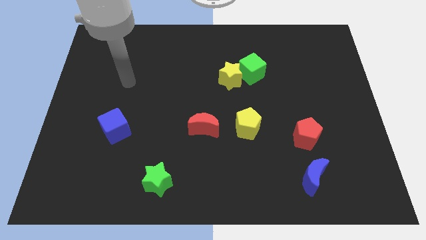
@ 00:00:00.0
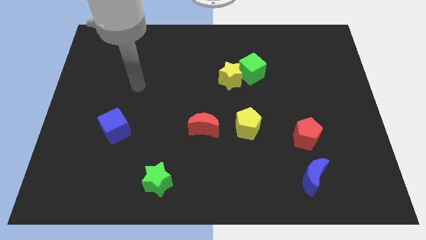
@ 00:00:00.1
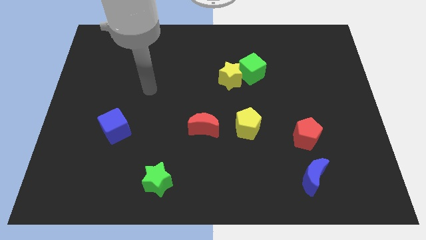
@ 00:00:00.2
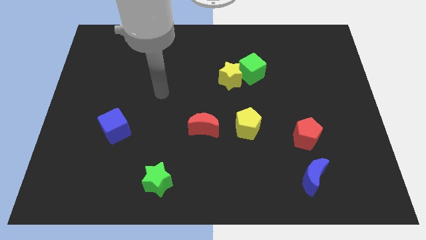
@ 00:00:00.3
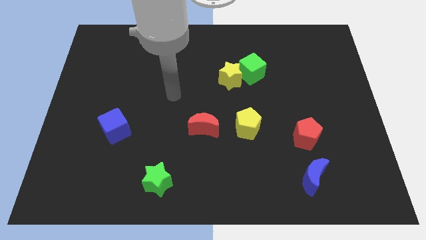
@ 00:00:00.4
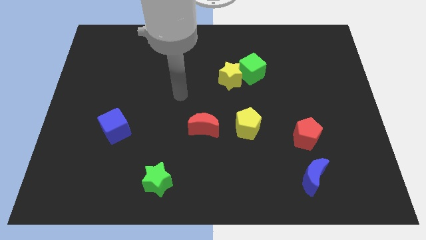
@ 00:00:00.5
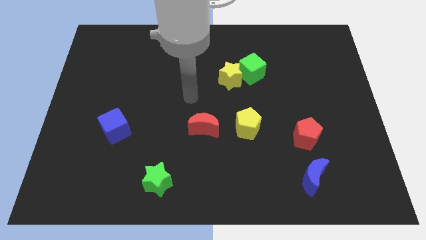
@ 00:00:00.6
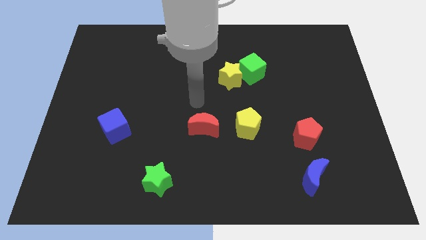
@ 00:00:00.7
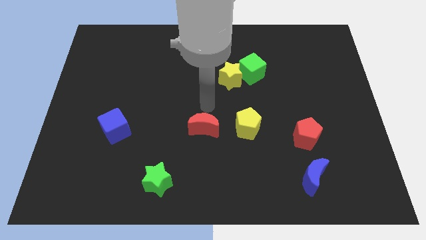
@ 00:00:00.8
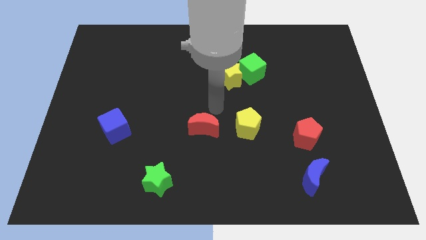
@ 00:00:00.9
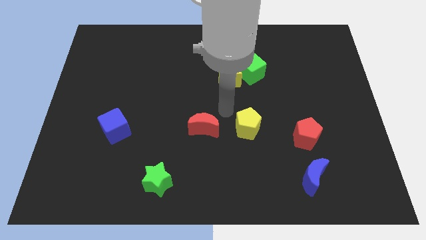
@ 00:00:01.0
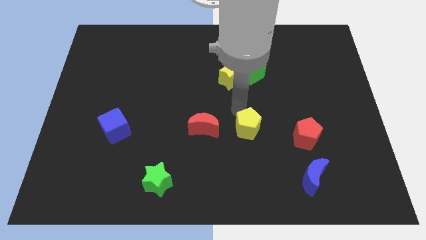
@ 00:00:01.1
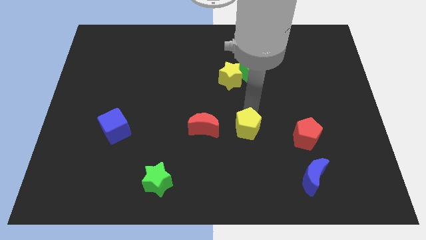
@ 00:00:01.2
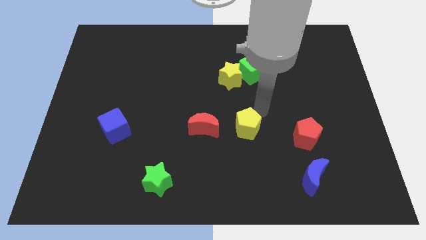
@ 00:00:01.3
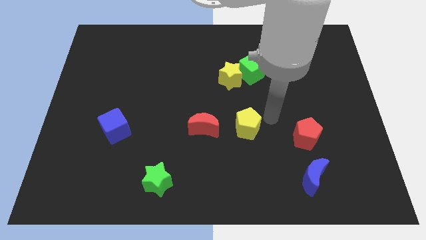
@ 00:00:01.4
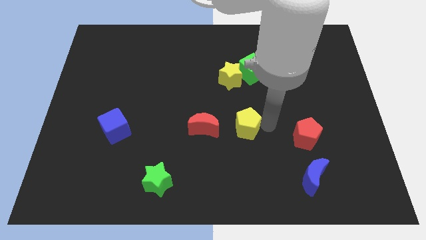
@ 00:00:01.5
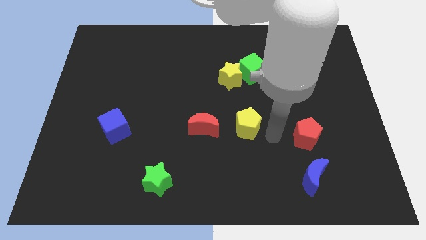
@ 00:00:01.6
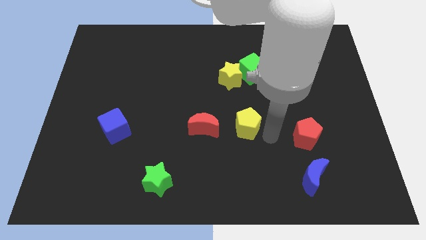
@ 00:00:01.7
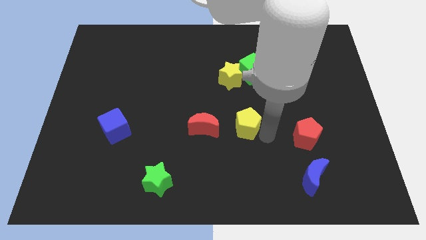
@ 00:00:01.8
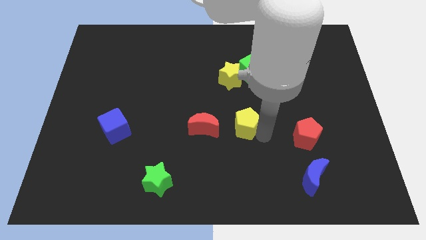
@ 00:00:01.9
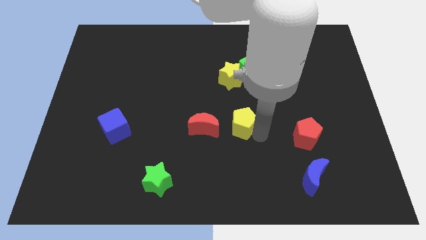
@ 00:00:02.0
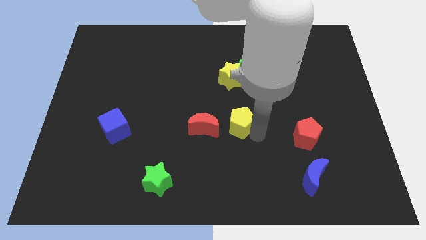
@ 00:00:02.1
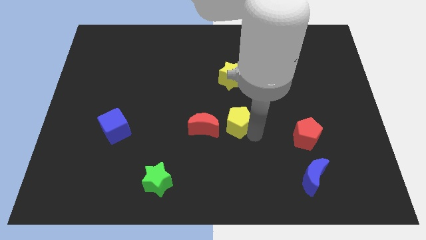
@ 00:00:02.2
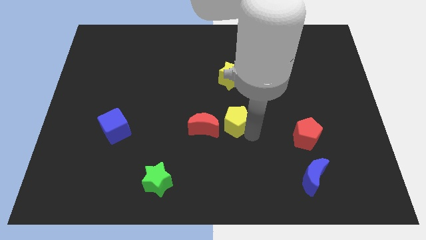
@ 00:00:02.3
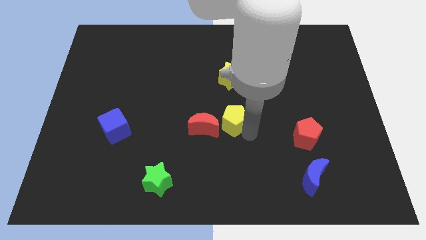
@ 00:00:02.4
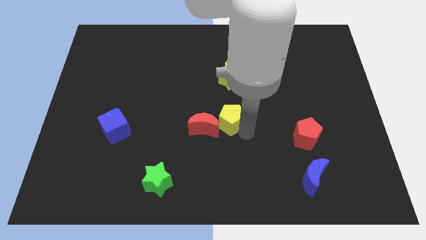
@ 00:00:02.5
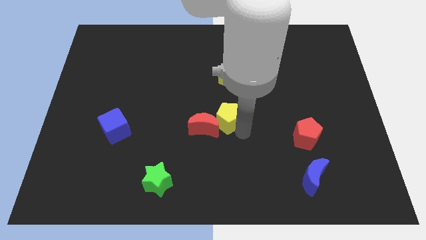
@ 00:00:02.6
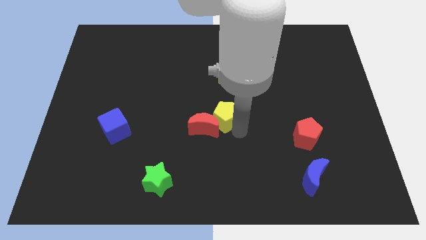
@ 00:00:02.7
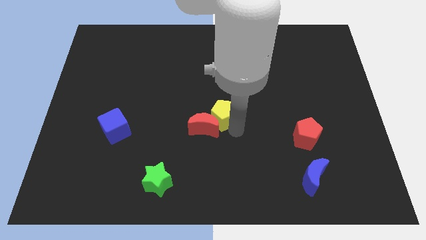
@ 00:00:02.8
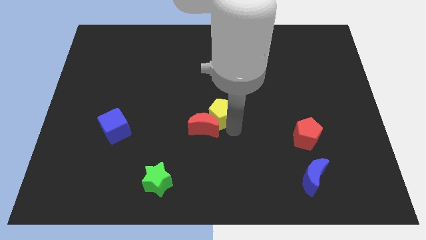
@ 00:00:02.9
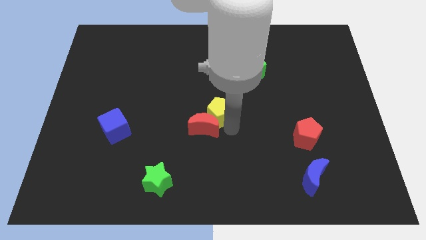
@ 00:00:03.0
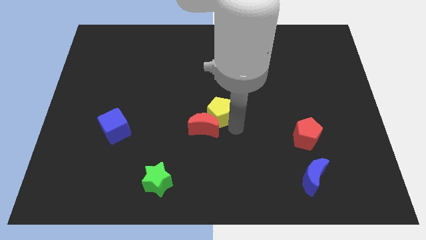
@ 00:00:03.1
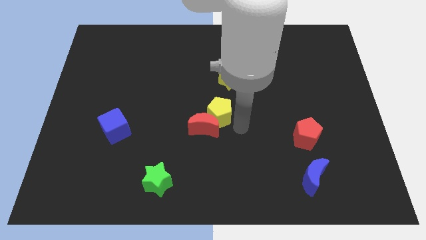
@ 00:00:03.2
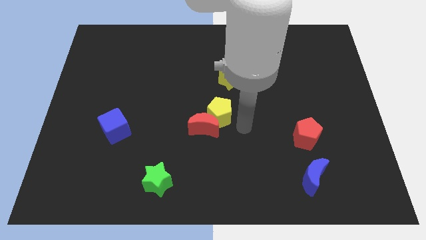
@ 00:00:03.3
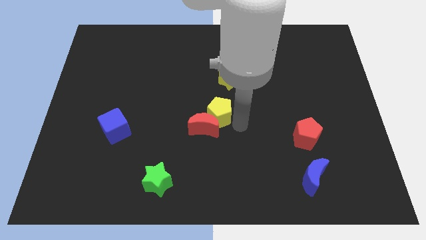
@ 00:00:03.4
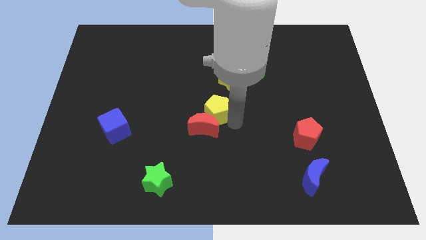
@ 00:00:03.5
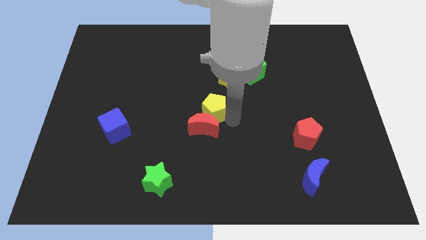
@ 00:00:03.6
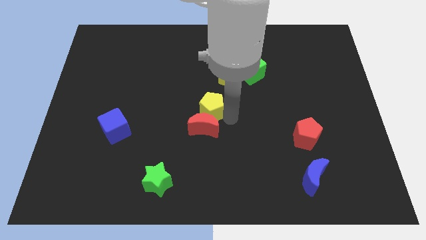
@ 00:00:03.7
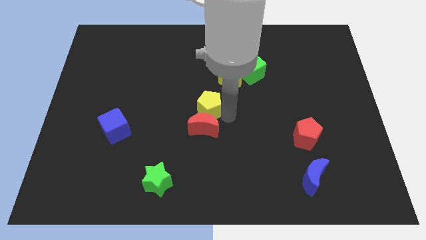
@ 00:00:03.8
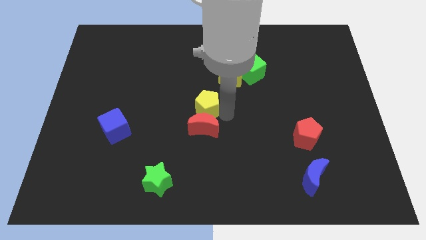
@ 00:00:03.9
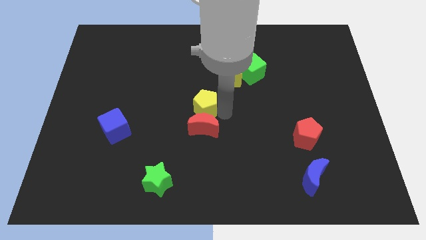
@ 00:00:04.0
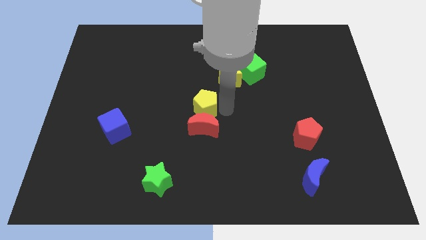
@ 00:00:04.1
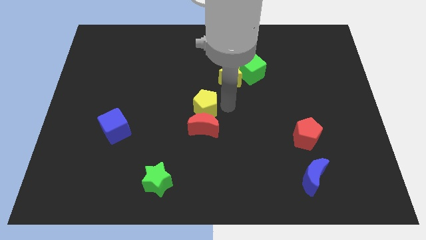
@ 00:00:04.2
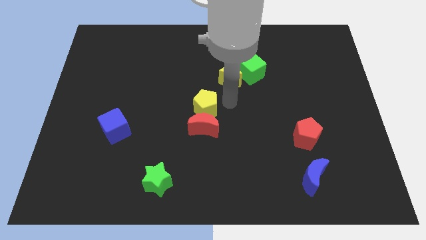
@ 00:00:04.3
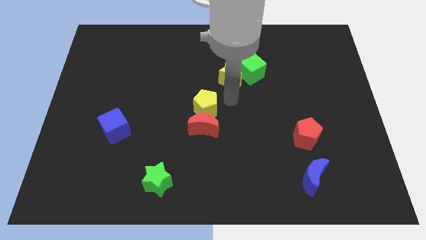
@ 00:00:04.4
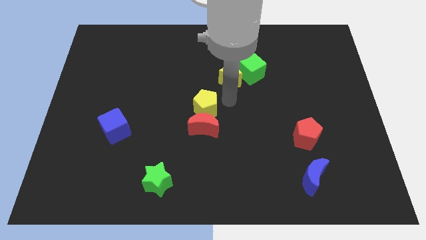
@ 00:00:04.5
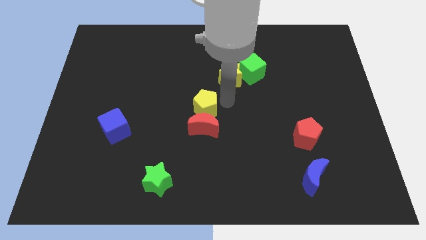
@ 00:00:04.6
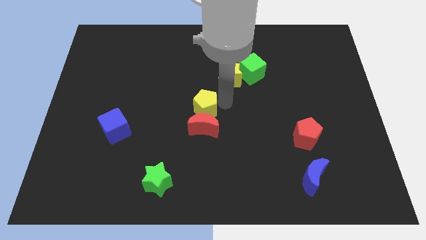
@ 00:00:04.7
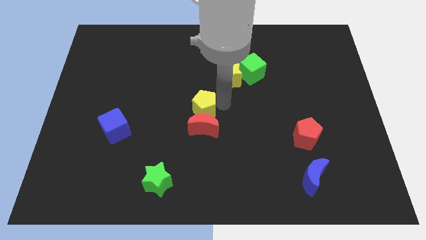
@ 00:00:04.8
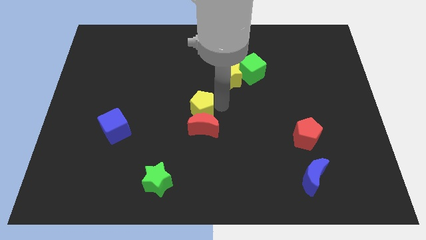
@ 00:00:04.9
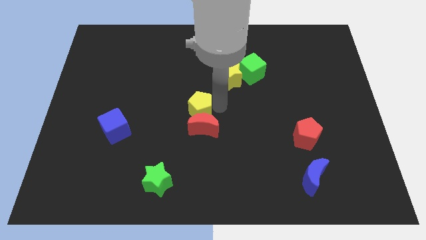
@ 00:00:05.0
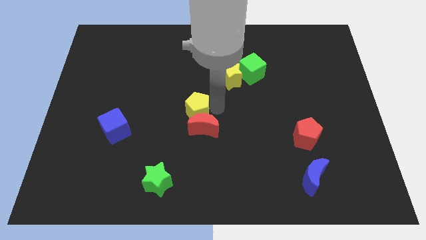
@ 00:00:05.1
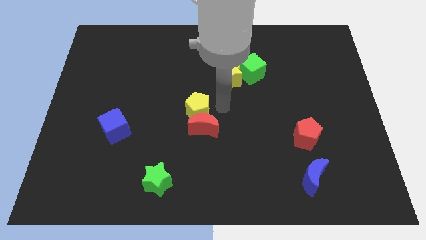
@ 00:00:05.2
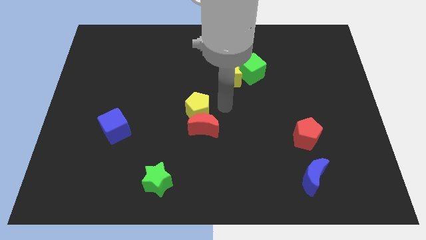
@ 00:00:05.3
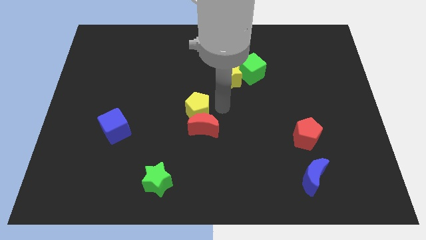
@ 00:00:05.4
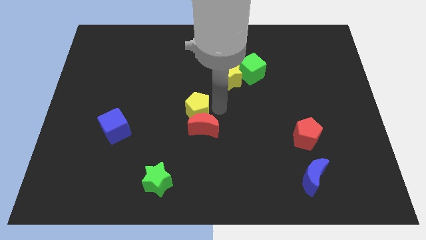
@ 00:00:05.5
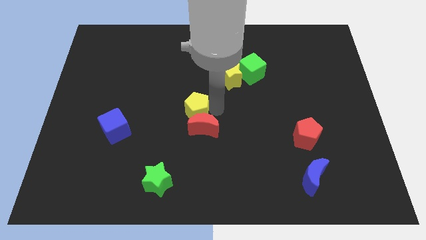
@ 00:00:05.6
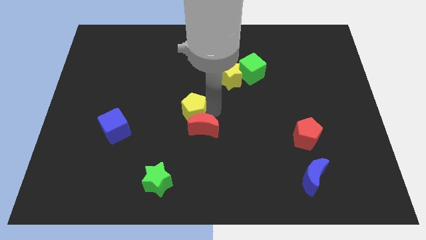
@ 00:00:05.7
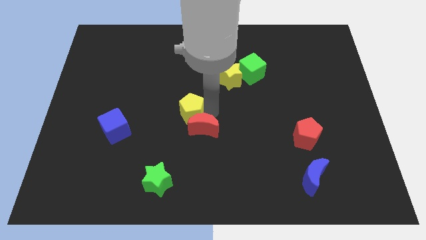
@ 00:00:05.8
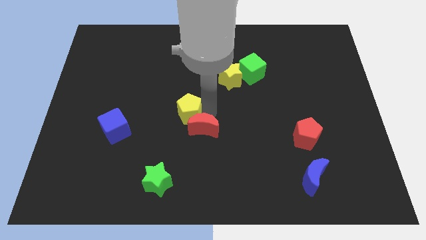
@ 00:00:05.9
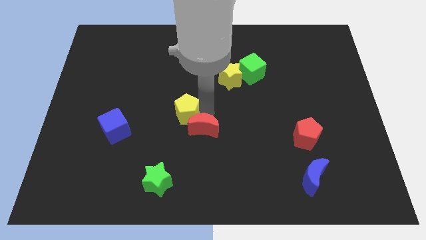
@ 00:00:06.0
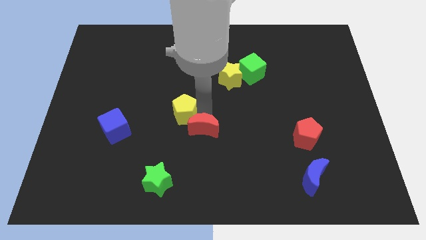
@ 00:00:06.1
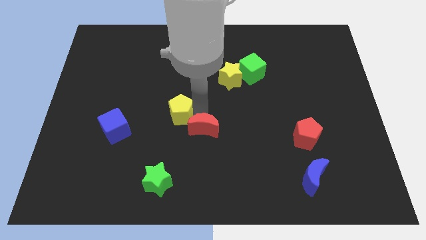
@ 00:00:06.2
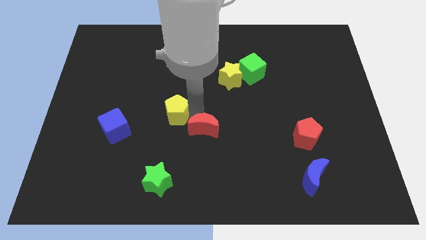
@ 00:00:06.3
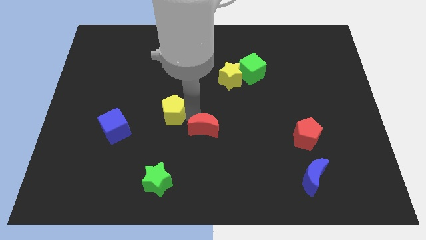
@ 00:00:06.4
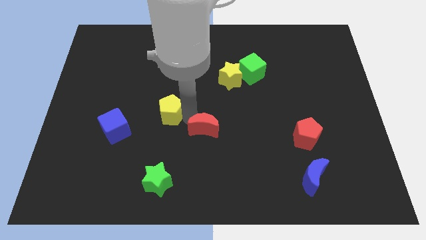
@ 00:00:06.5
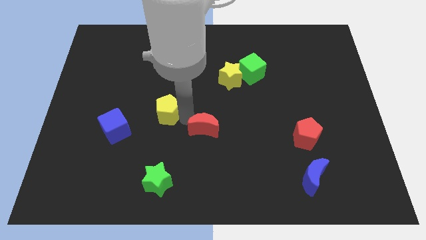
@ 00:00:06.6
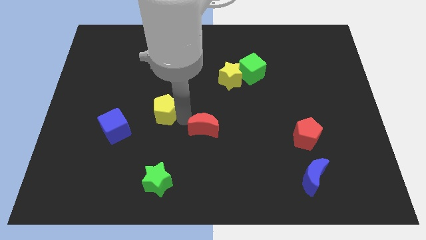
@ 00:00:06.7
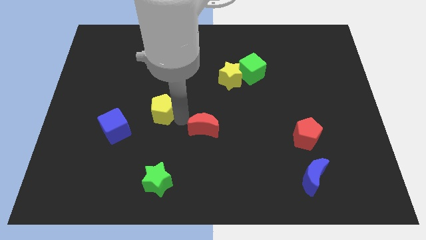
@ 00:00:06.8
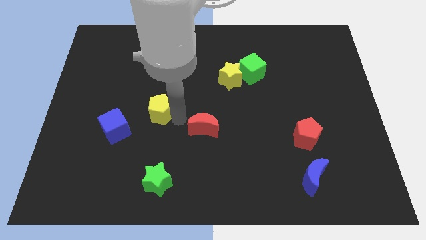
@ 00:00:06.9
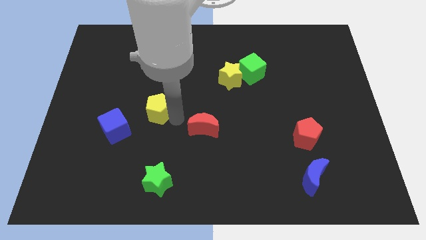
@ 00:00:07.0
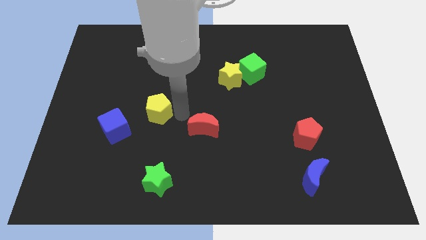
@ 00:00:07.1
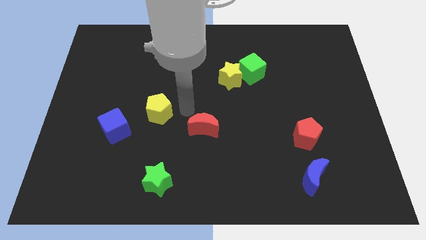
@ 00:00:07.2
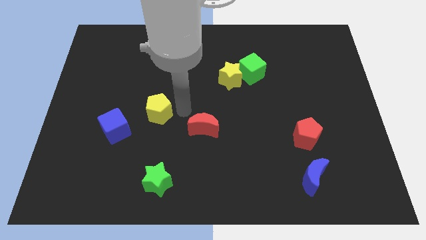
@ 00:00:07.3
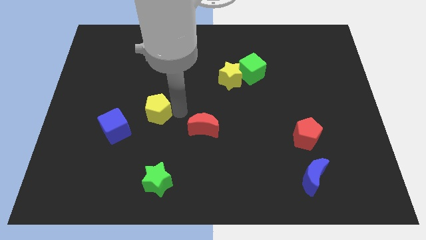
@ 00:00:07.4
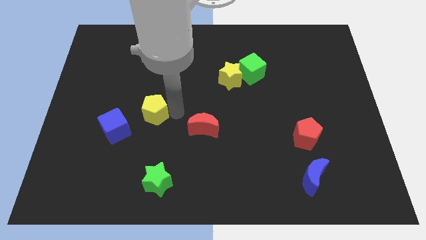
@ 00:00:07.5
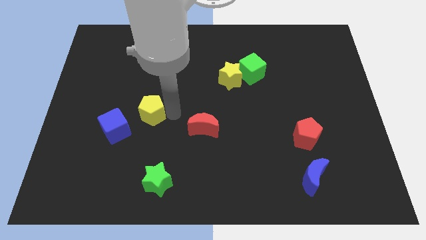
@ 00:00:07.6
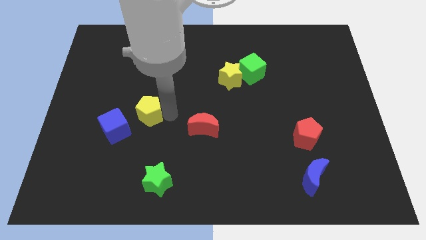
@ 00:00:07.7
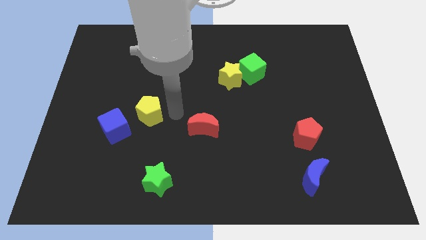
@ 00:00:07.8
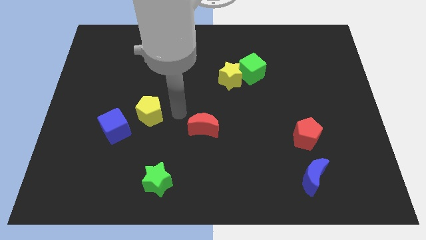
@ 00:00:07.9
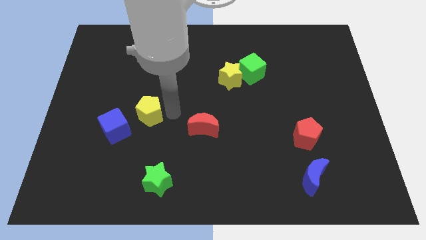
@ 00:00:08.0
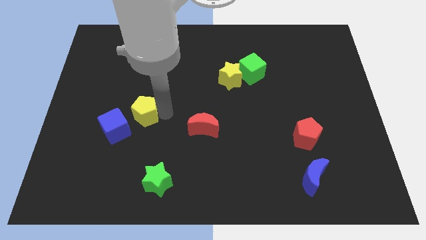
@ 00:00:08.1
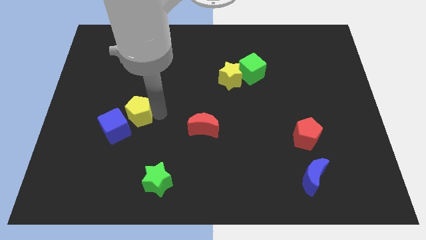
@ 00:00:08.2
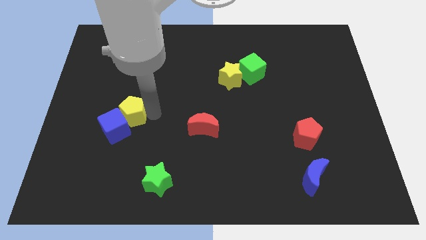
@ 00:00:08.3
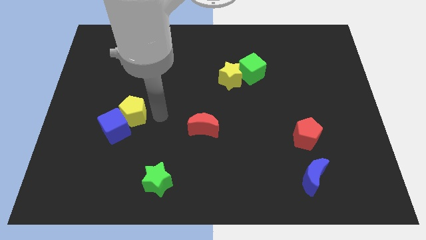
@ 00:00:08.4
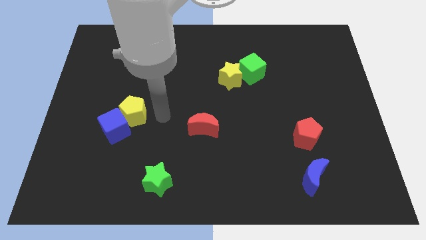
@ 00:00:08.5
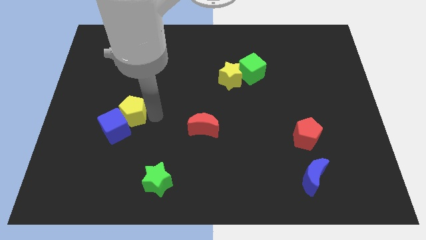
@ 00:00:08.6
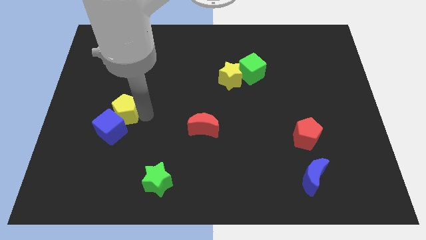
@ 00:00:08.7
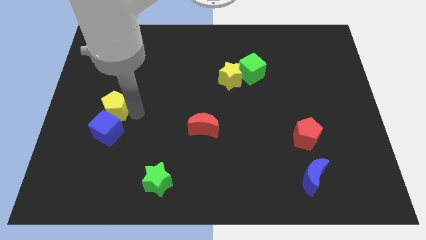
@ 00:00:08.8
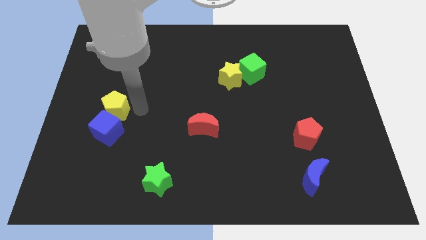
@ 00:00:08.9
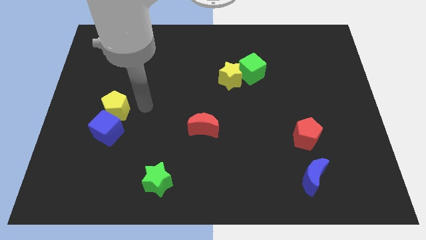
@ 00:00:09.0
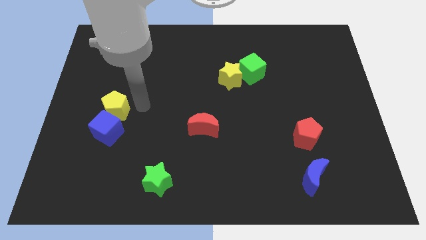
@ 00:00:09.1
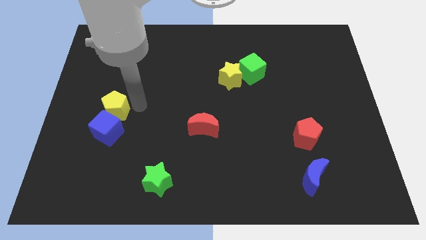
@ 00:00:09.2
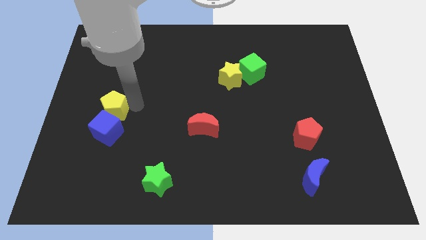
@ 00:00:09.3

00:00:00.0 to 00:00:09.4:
slide the yellow pentagon diagonally up and to the left of the blue cube
